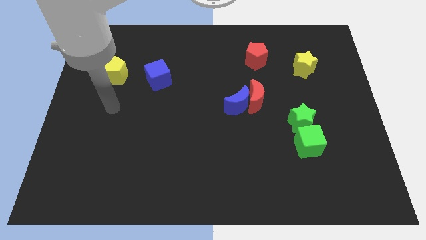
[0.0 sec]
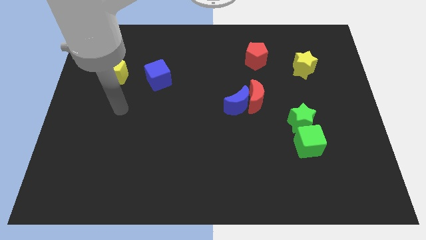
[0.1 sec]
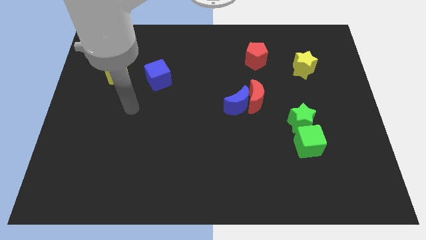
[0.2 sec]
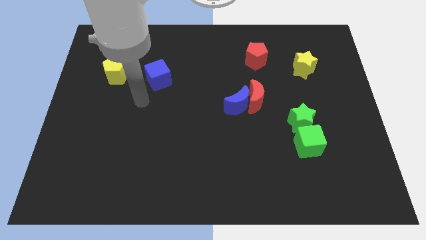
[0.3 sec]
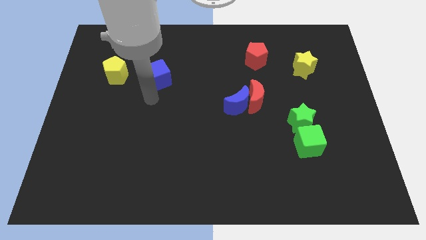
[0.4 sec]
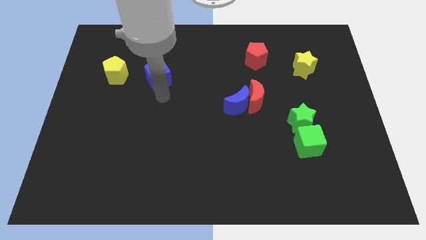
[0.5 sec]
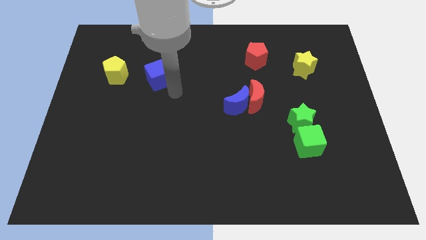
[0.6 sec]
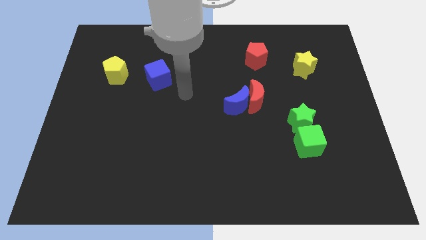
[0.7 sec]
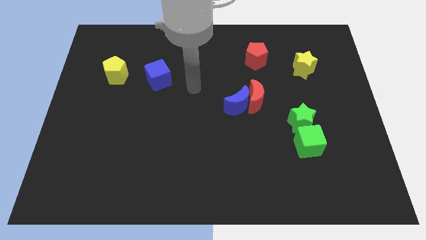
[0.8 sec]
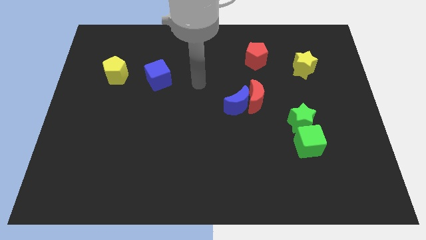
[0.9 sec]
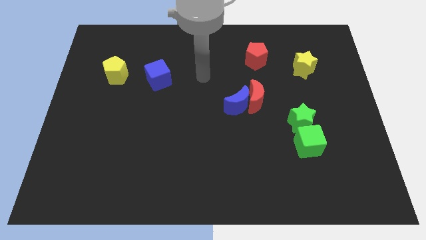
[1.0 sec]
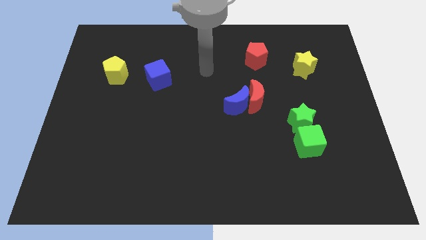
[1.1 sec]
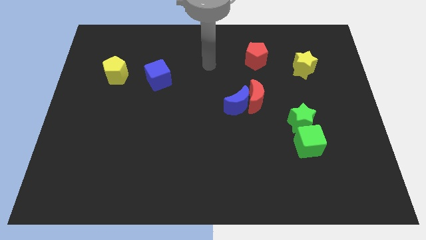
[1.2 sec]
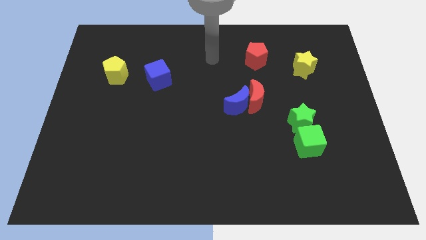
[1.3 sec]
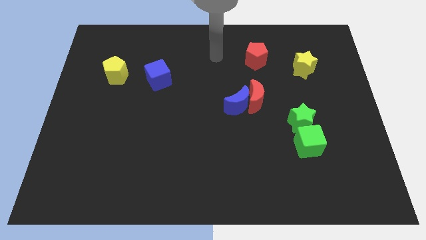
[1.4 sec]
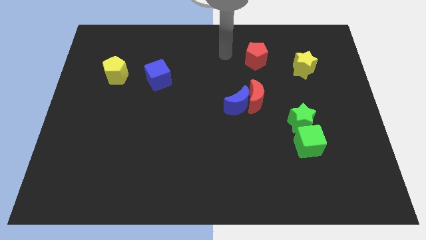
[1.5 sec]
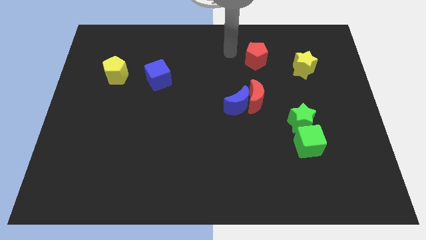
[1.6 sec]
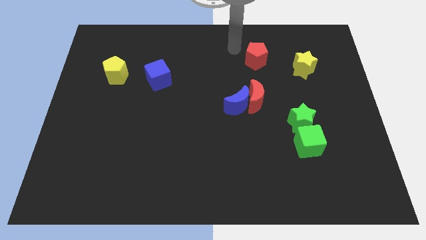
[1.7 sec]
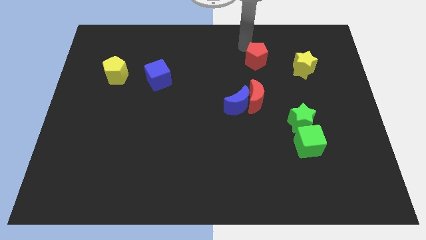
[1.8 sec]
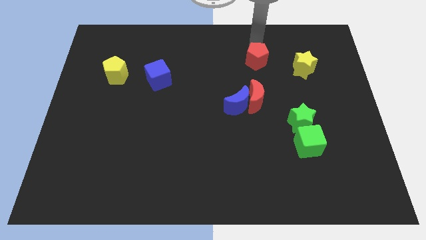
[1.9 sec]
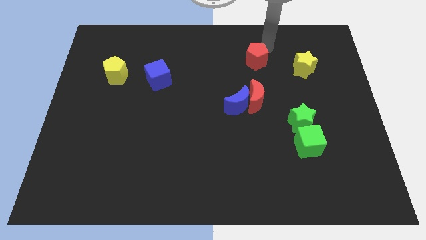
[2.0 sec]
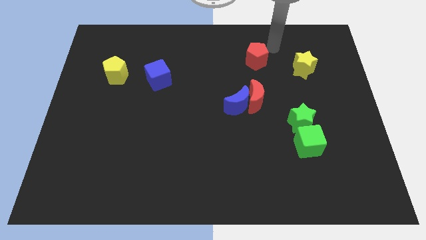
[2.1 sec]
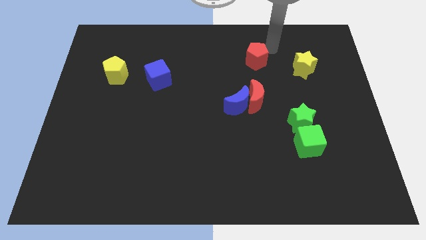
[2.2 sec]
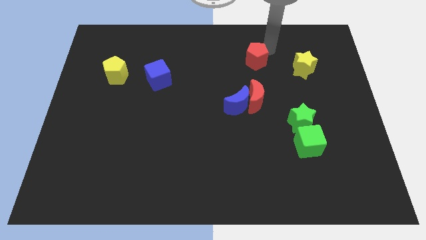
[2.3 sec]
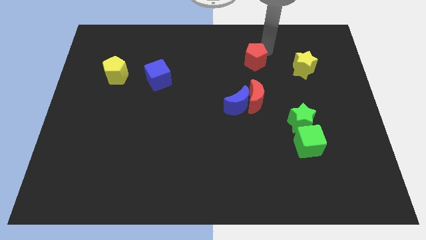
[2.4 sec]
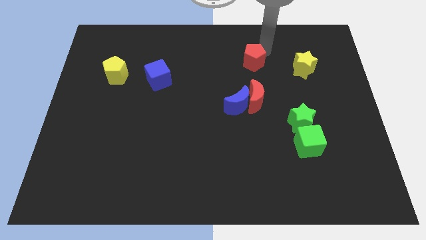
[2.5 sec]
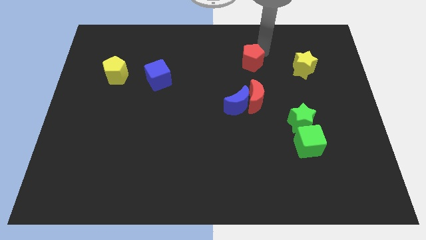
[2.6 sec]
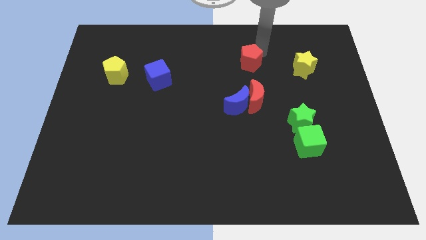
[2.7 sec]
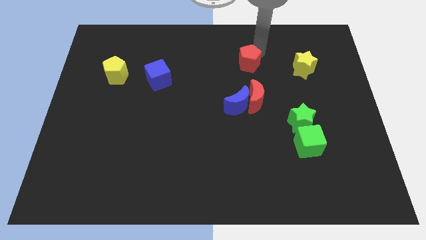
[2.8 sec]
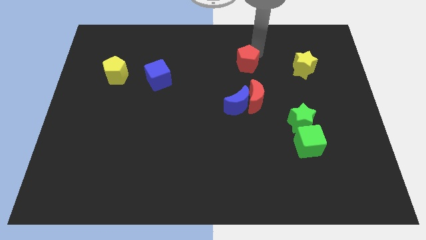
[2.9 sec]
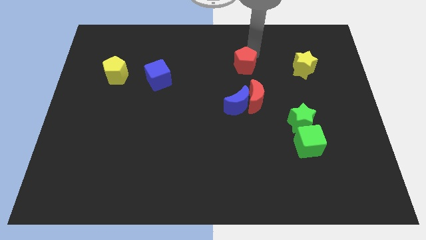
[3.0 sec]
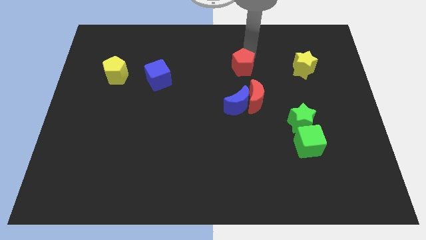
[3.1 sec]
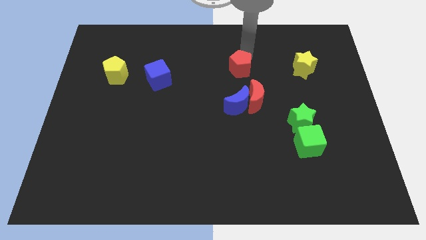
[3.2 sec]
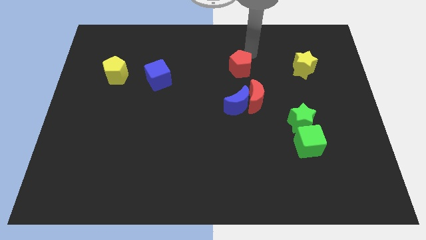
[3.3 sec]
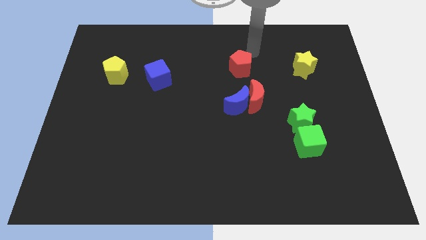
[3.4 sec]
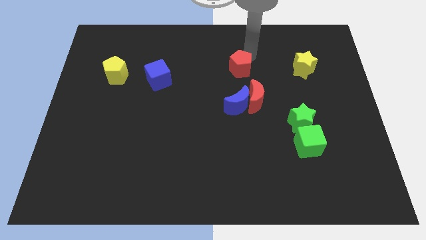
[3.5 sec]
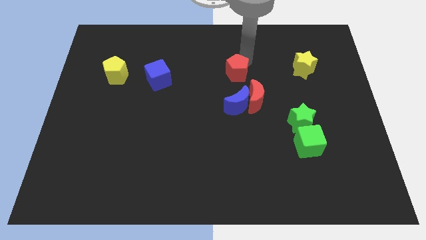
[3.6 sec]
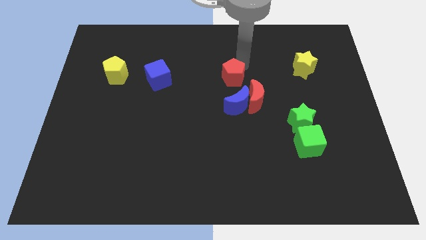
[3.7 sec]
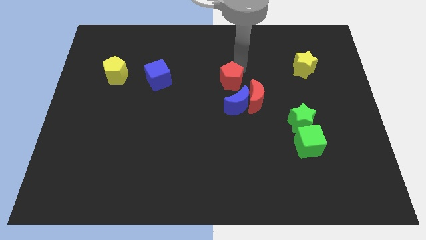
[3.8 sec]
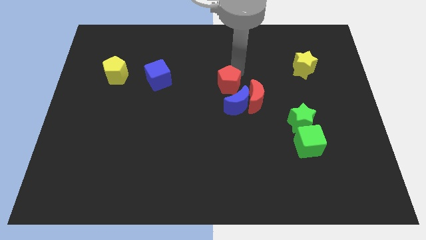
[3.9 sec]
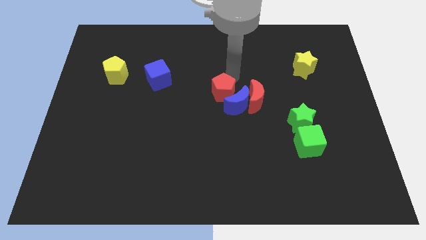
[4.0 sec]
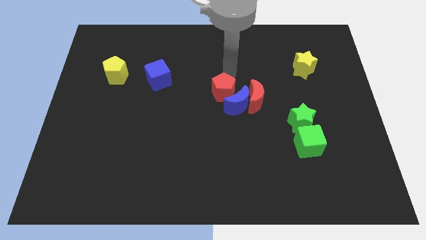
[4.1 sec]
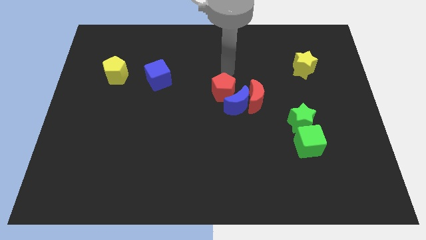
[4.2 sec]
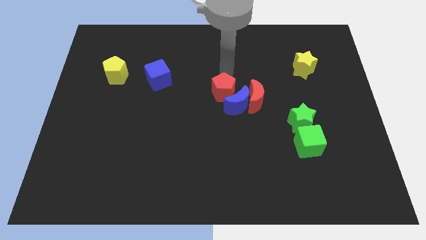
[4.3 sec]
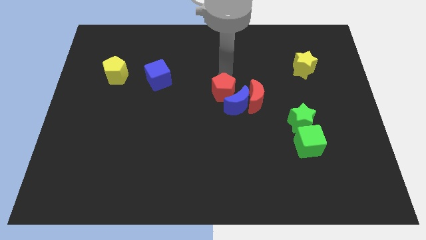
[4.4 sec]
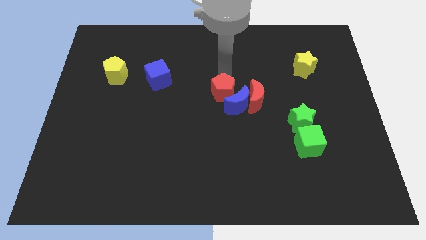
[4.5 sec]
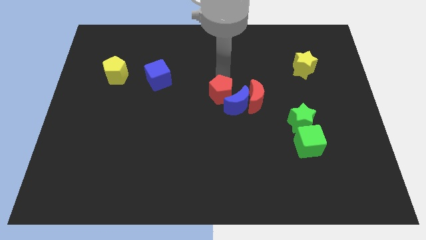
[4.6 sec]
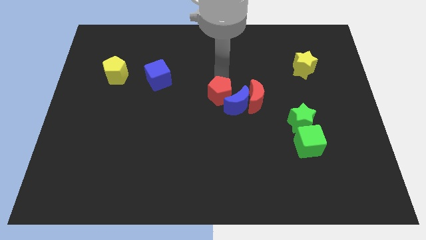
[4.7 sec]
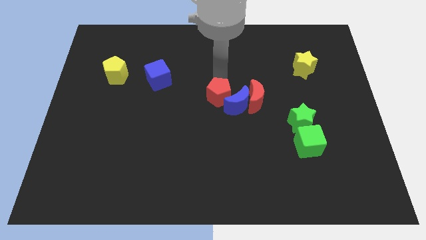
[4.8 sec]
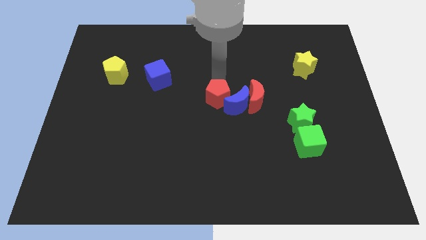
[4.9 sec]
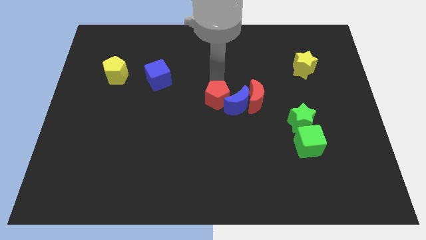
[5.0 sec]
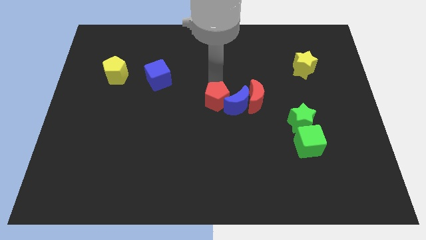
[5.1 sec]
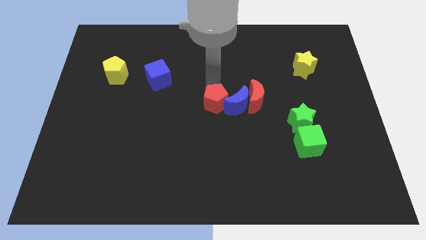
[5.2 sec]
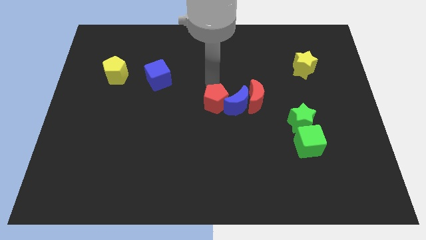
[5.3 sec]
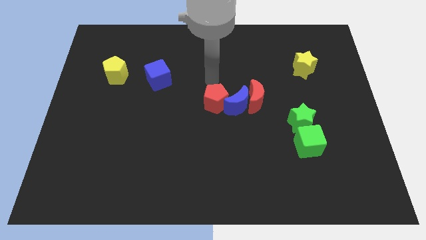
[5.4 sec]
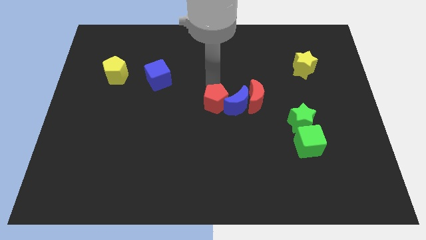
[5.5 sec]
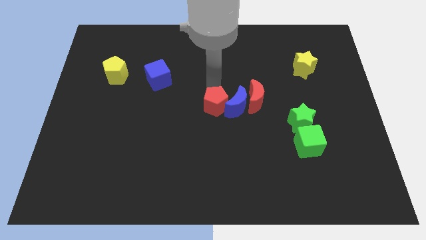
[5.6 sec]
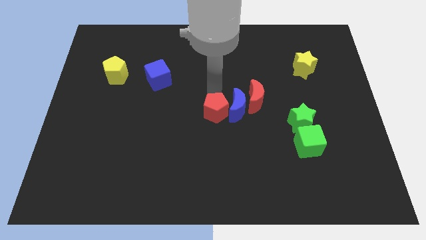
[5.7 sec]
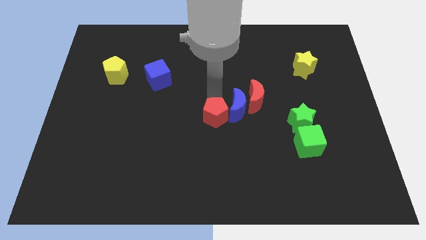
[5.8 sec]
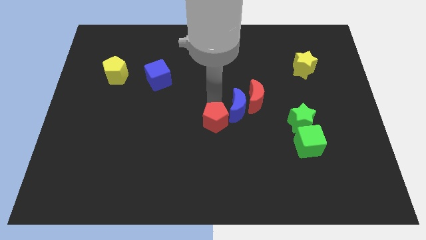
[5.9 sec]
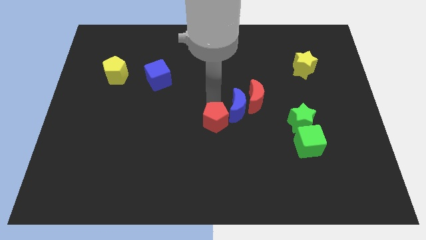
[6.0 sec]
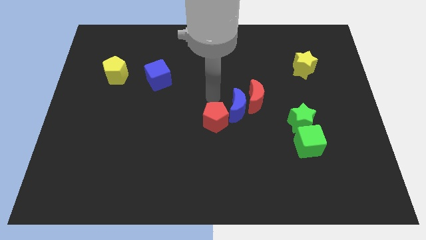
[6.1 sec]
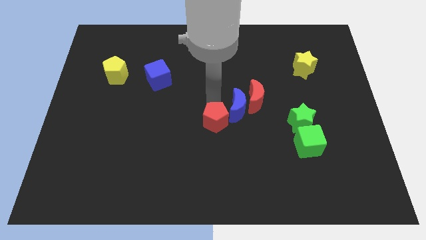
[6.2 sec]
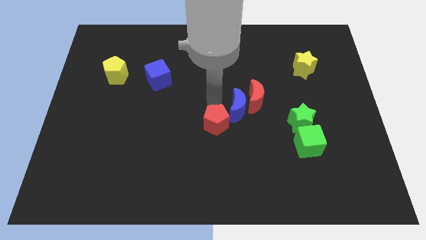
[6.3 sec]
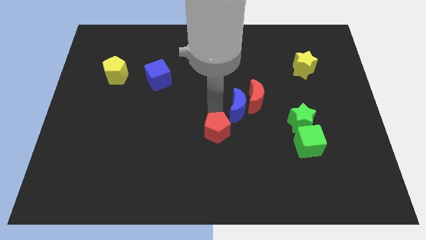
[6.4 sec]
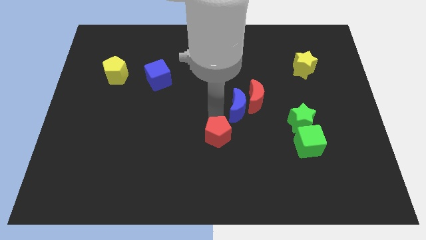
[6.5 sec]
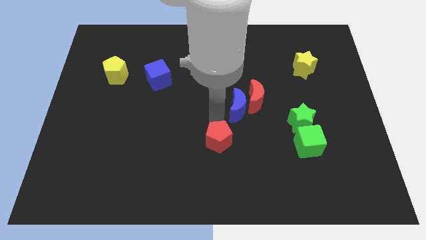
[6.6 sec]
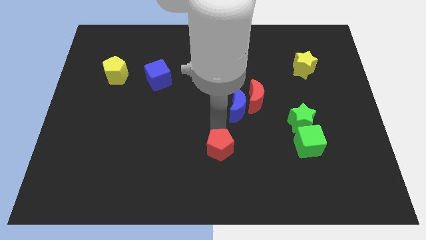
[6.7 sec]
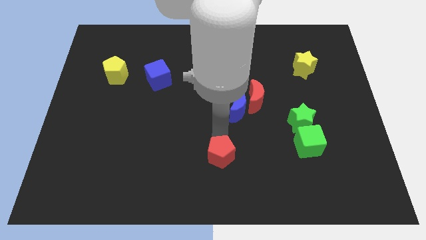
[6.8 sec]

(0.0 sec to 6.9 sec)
move the red pentagon to the bottom side

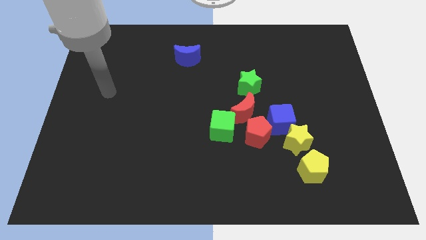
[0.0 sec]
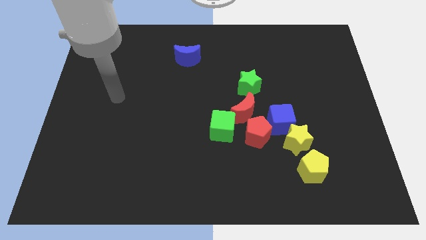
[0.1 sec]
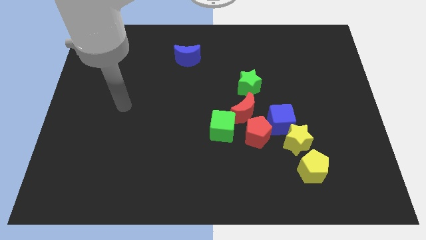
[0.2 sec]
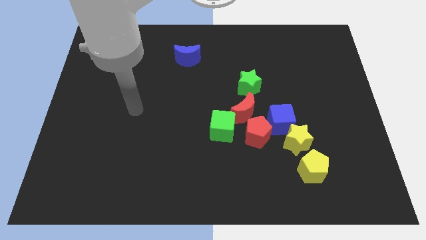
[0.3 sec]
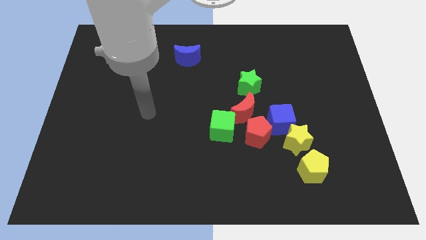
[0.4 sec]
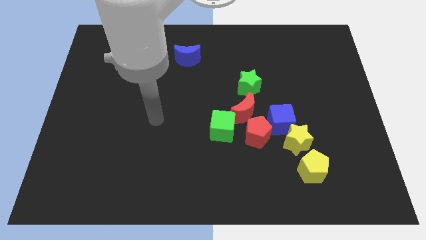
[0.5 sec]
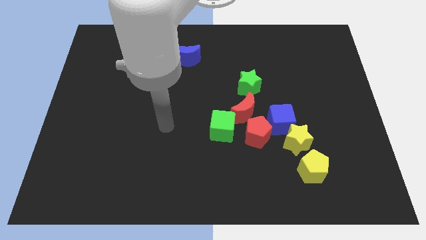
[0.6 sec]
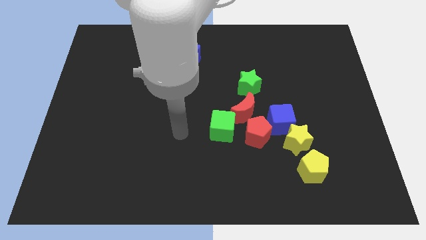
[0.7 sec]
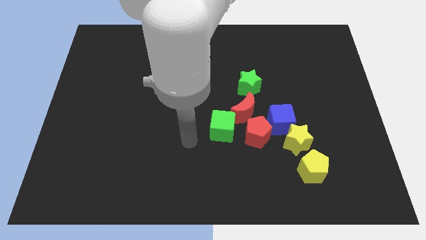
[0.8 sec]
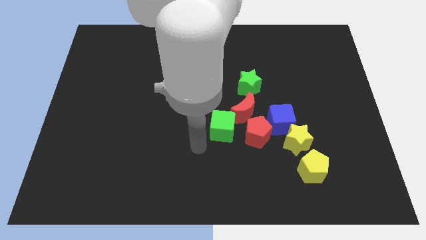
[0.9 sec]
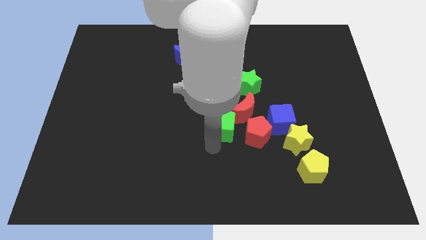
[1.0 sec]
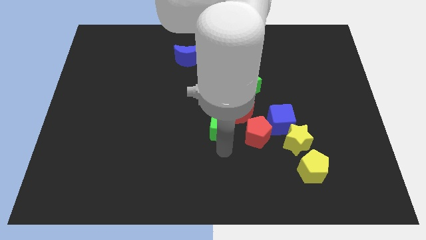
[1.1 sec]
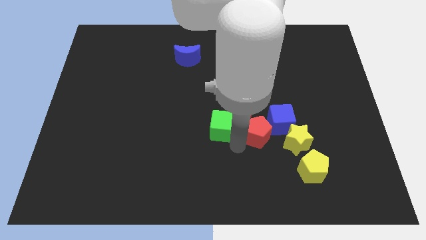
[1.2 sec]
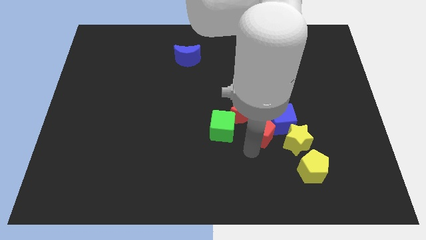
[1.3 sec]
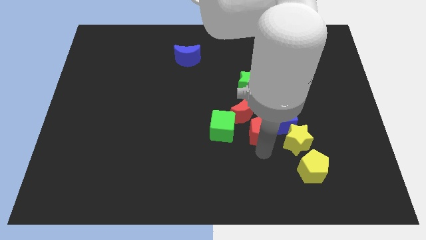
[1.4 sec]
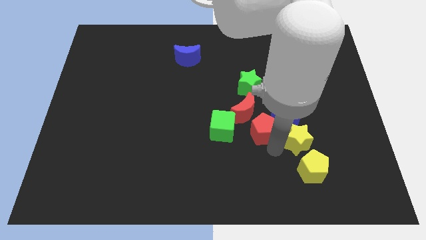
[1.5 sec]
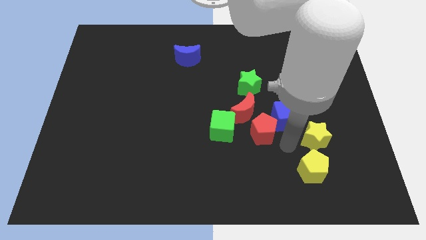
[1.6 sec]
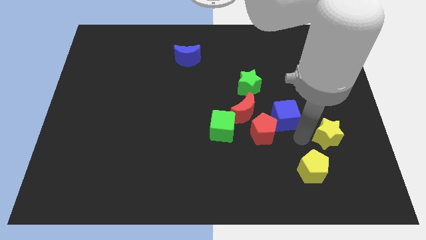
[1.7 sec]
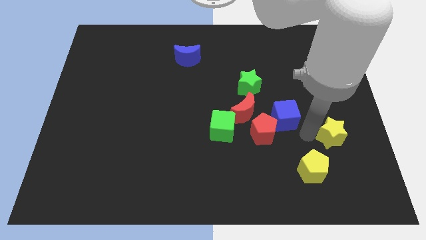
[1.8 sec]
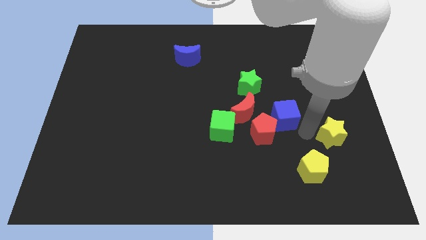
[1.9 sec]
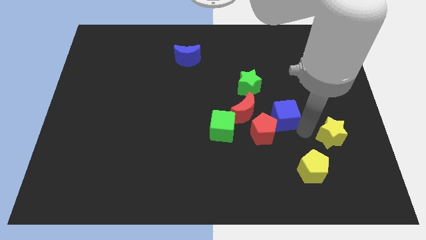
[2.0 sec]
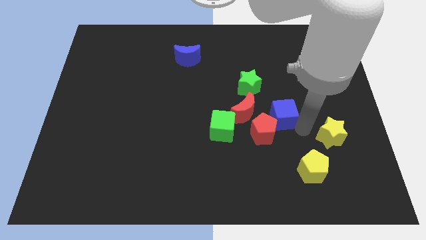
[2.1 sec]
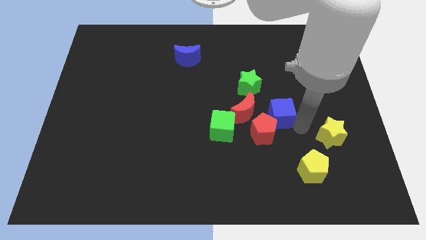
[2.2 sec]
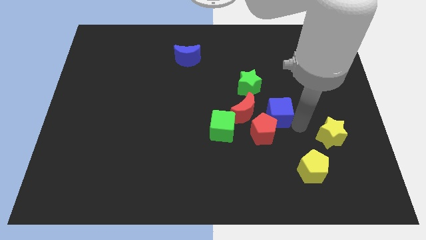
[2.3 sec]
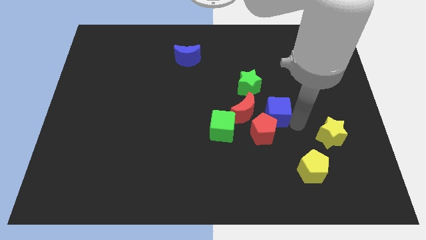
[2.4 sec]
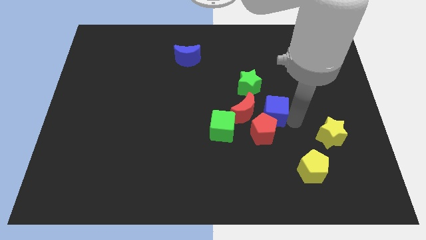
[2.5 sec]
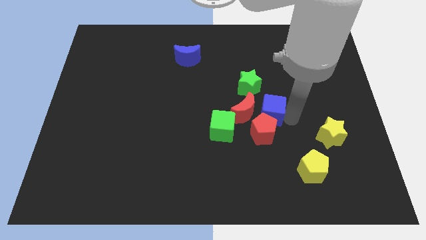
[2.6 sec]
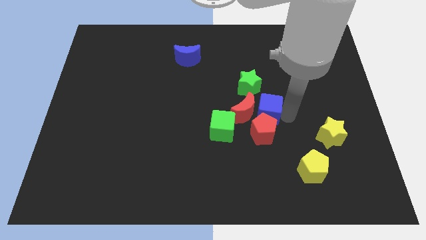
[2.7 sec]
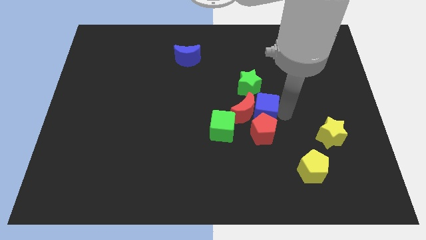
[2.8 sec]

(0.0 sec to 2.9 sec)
push the blue cube to the middle of the board
